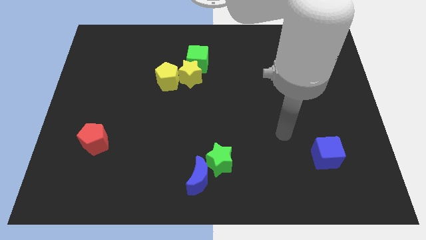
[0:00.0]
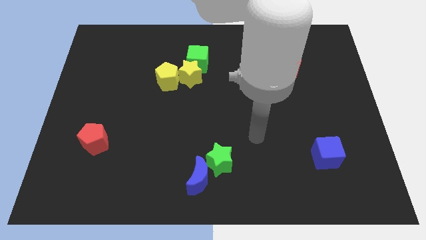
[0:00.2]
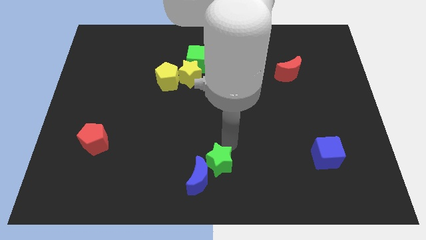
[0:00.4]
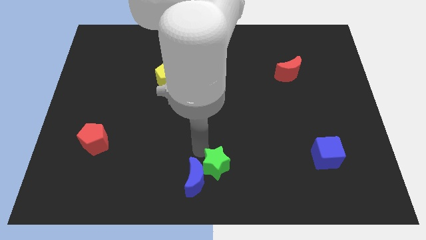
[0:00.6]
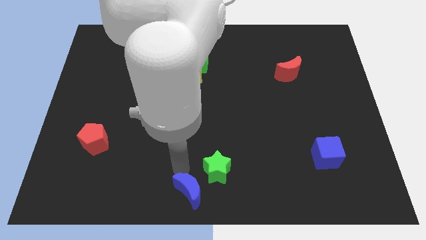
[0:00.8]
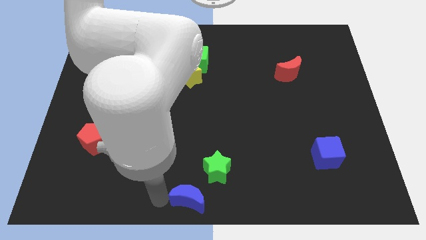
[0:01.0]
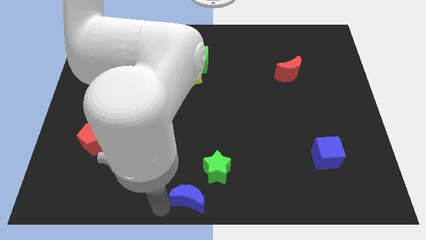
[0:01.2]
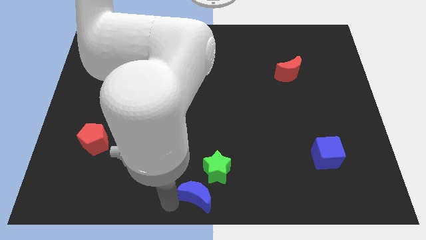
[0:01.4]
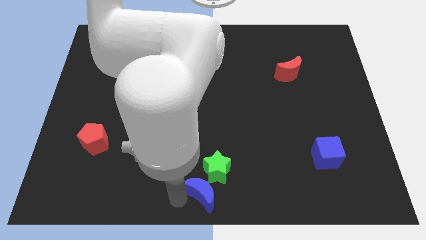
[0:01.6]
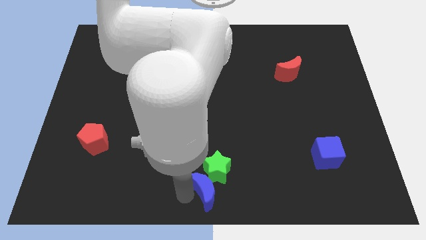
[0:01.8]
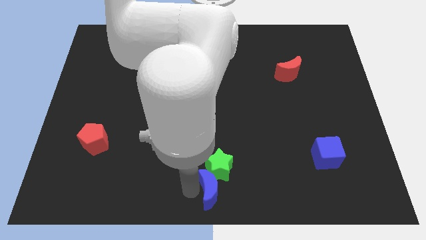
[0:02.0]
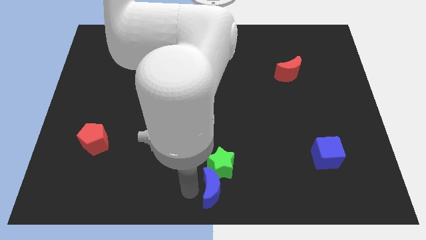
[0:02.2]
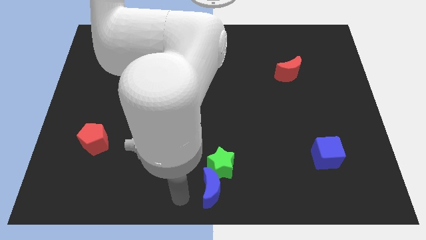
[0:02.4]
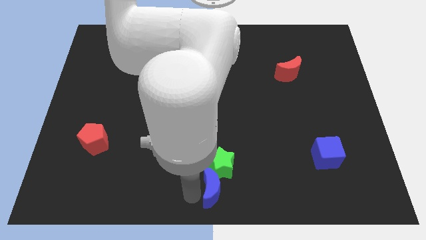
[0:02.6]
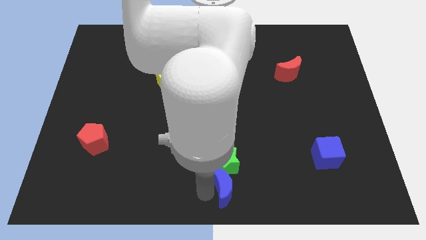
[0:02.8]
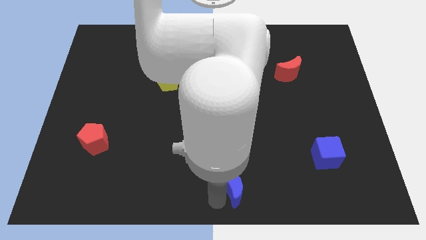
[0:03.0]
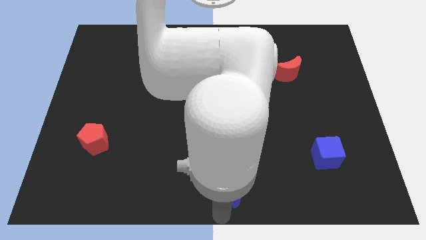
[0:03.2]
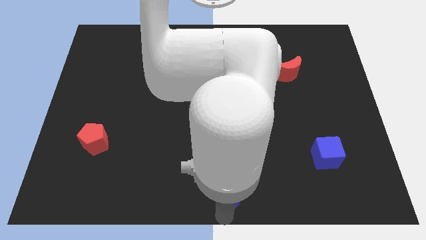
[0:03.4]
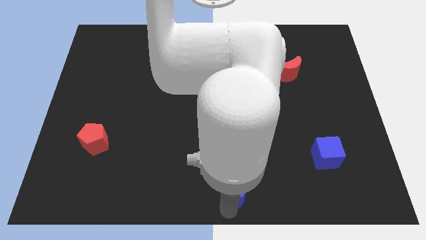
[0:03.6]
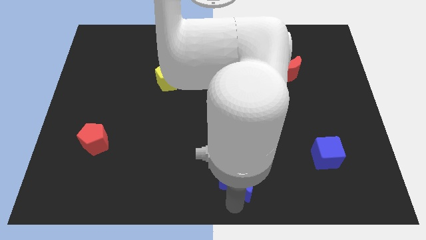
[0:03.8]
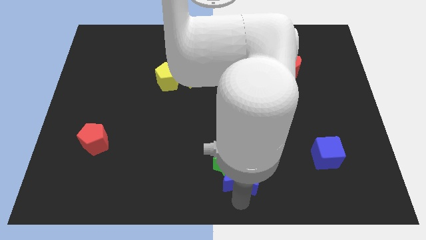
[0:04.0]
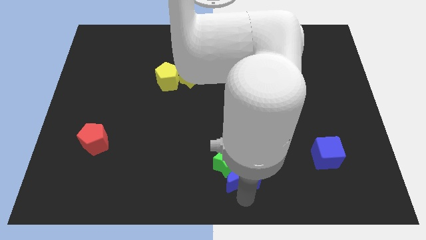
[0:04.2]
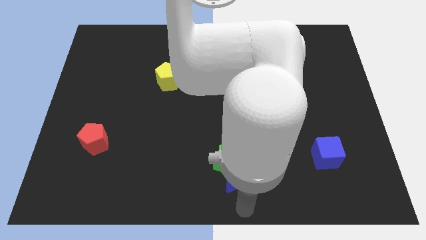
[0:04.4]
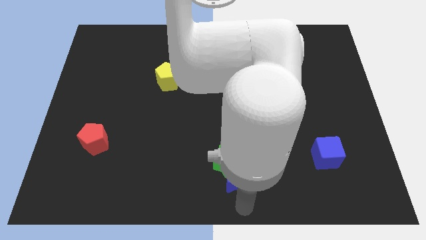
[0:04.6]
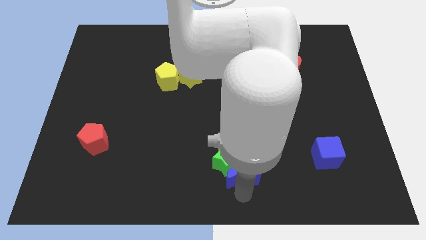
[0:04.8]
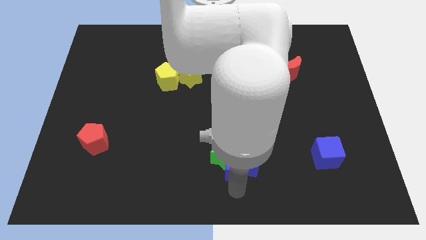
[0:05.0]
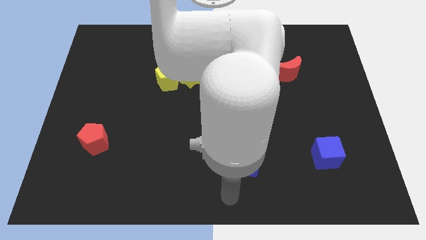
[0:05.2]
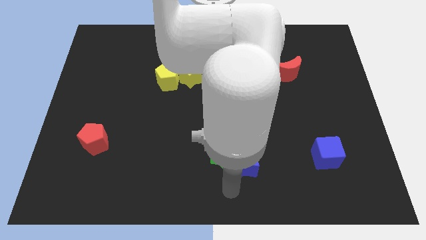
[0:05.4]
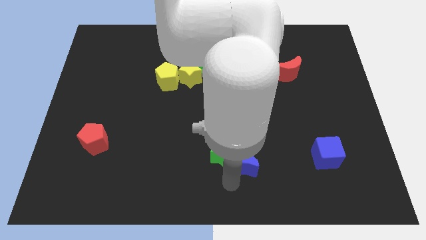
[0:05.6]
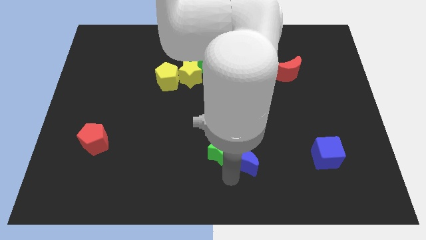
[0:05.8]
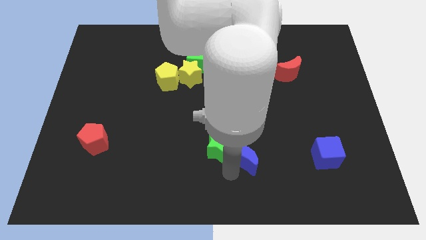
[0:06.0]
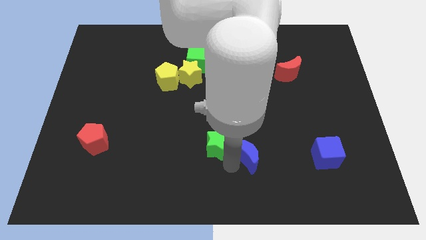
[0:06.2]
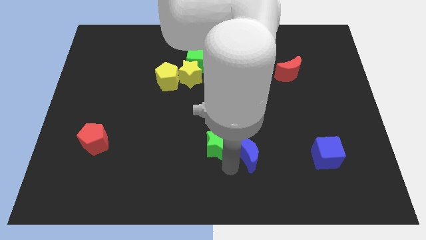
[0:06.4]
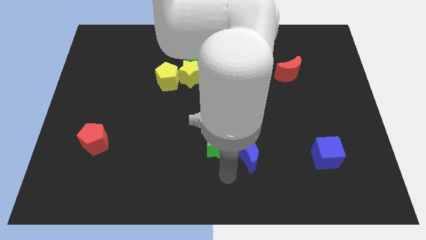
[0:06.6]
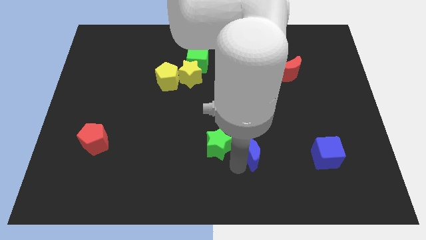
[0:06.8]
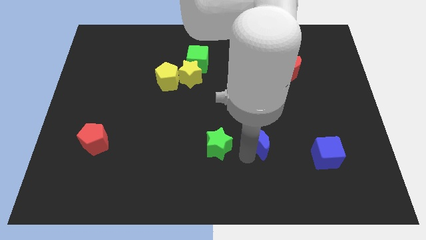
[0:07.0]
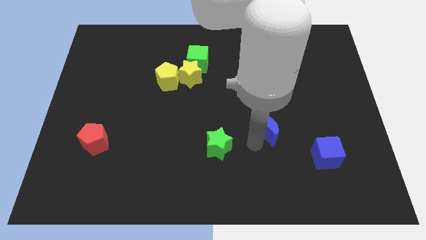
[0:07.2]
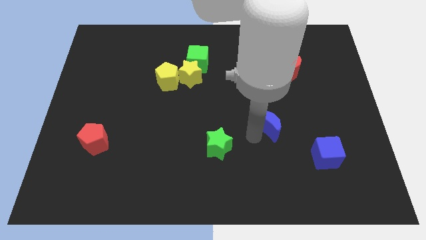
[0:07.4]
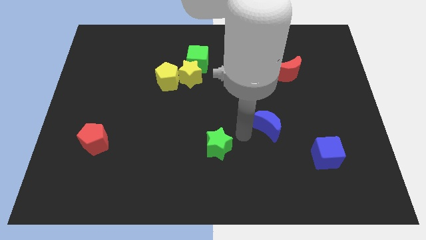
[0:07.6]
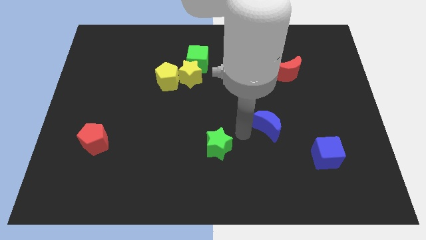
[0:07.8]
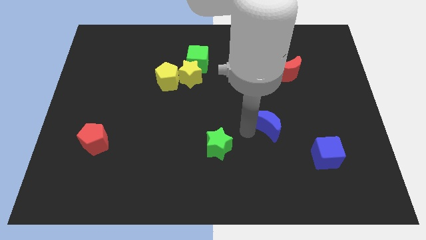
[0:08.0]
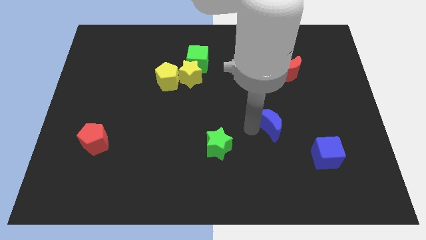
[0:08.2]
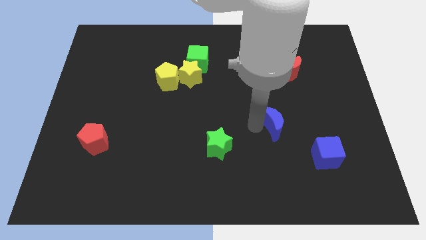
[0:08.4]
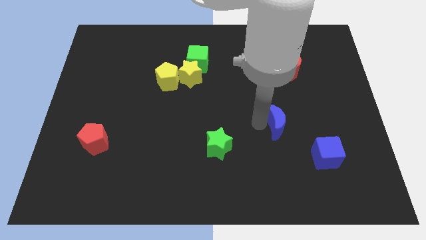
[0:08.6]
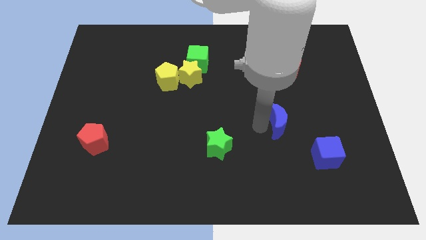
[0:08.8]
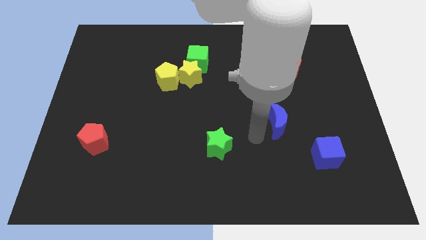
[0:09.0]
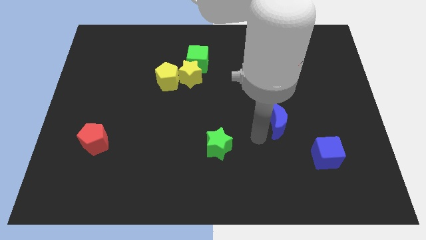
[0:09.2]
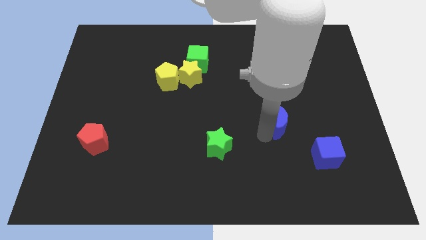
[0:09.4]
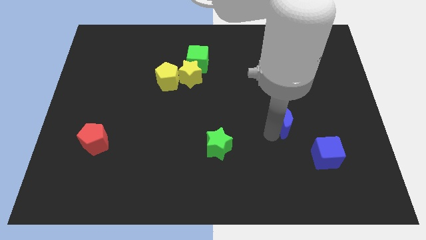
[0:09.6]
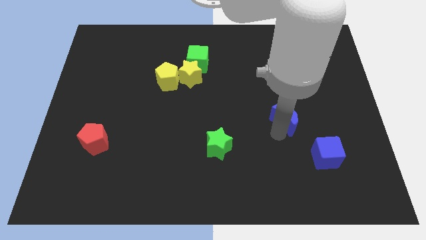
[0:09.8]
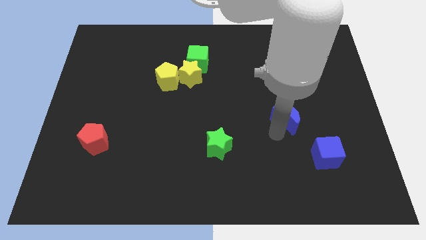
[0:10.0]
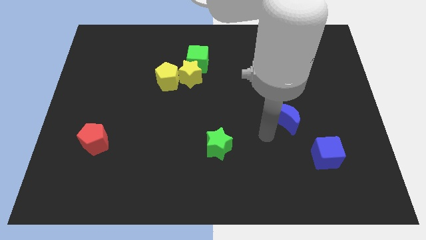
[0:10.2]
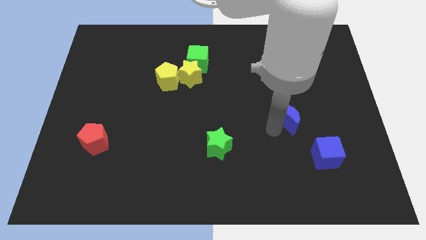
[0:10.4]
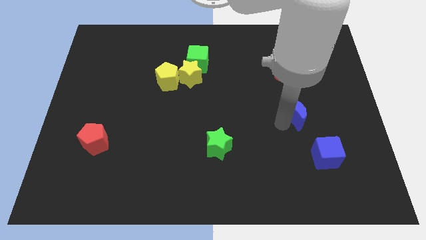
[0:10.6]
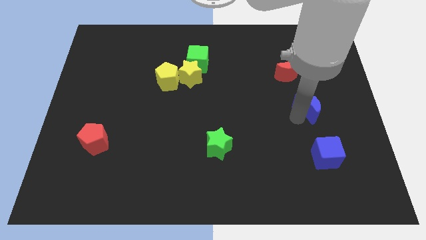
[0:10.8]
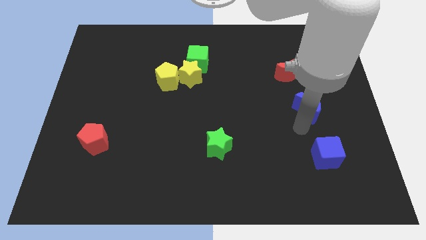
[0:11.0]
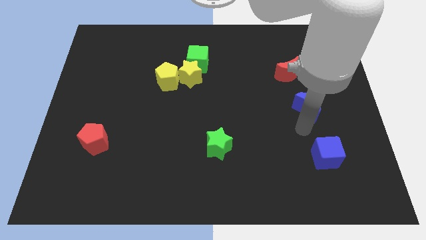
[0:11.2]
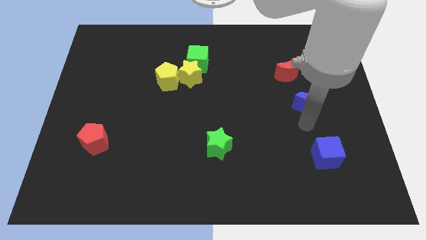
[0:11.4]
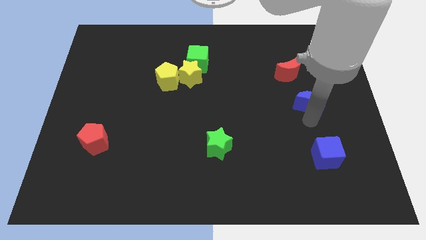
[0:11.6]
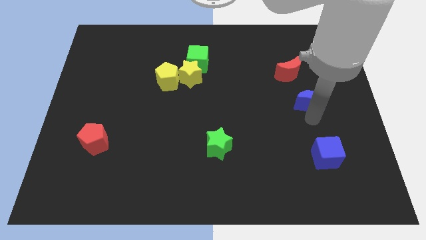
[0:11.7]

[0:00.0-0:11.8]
push the blue moon diagonally down and to the right of the red moon

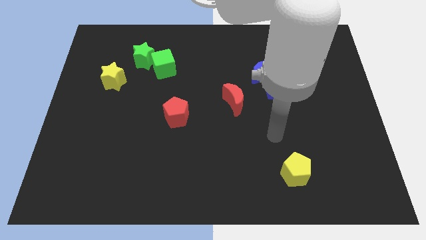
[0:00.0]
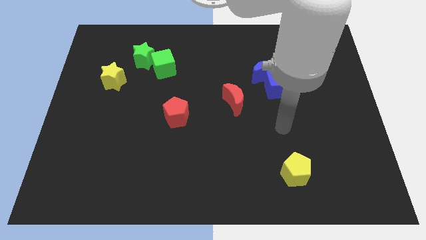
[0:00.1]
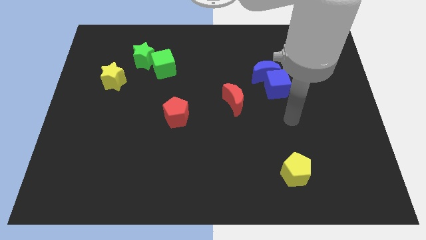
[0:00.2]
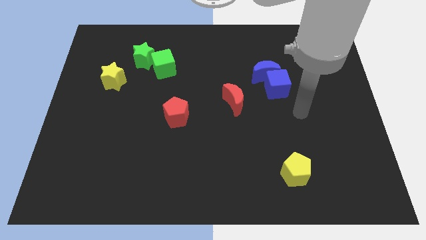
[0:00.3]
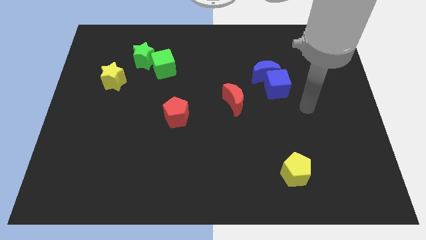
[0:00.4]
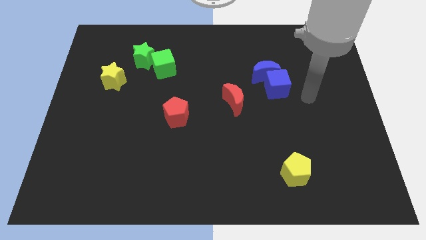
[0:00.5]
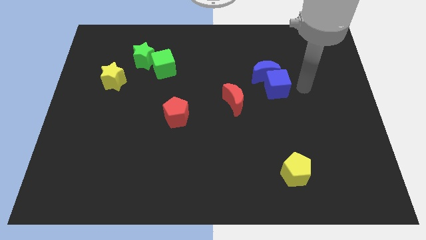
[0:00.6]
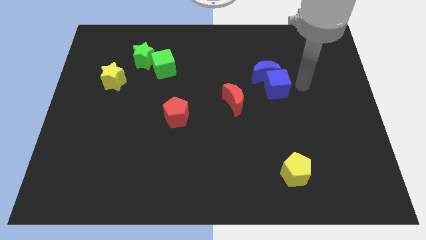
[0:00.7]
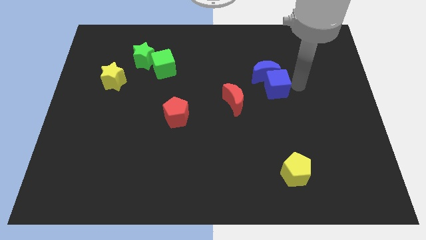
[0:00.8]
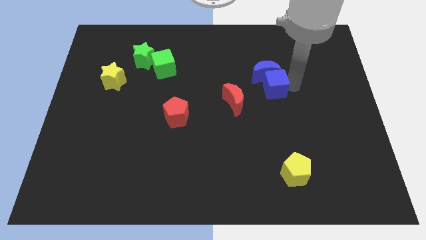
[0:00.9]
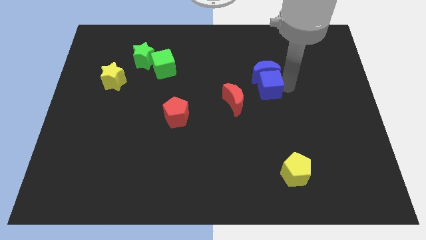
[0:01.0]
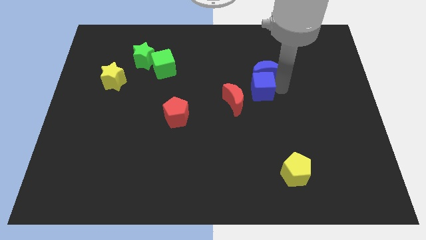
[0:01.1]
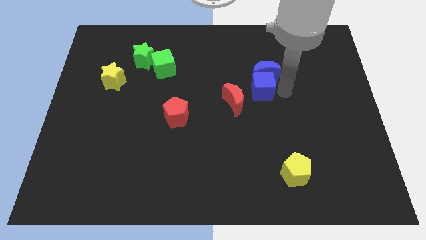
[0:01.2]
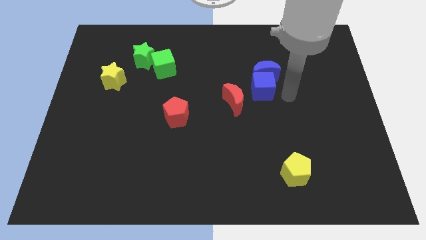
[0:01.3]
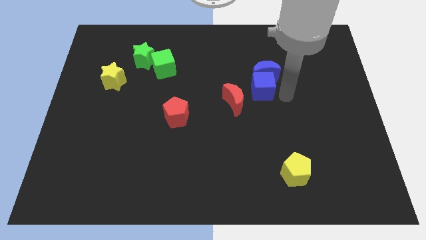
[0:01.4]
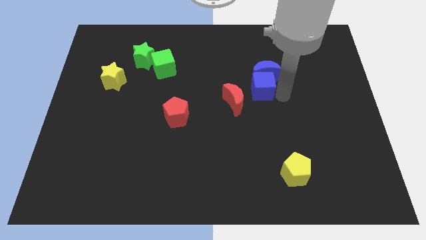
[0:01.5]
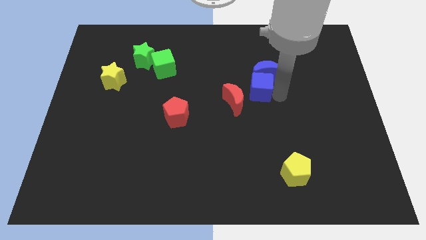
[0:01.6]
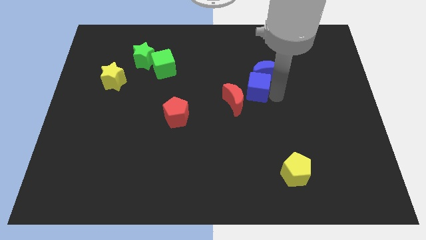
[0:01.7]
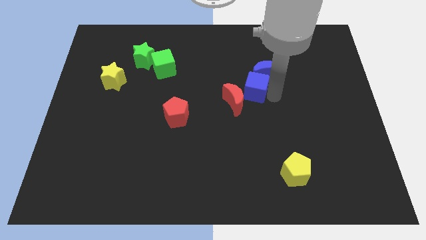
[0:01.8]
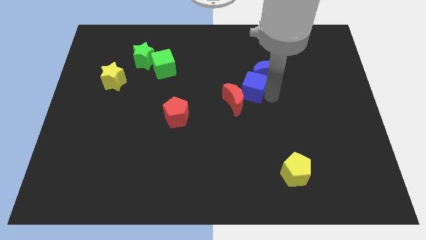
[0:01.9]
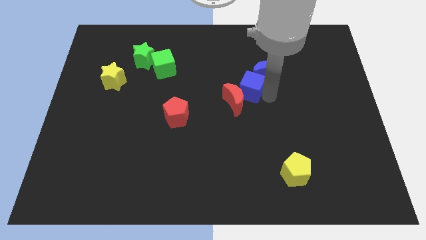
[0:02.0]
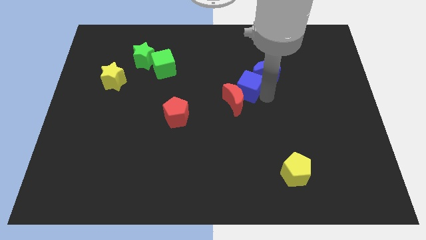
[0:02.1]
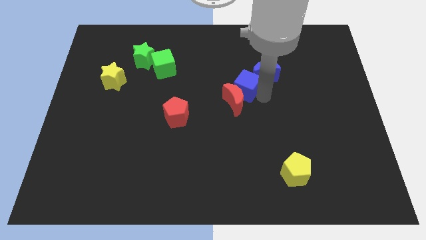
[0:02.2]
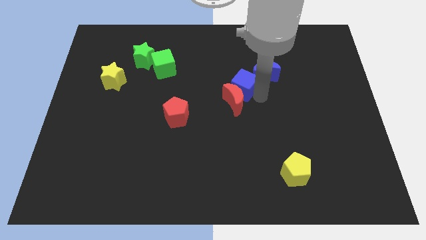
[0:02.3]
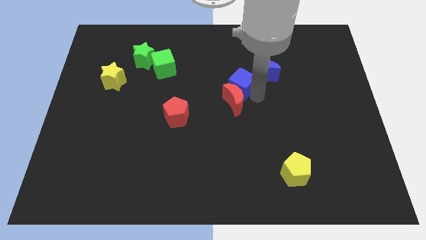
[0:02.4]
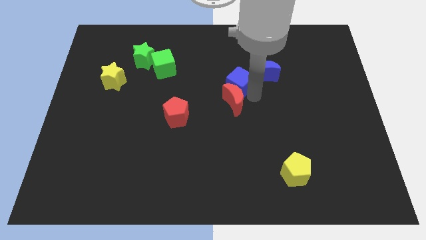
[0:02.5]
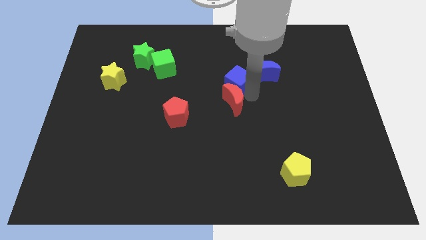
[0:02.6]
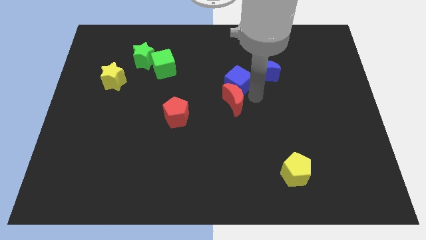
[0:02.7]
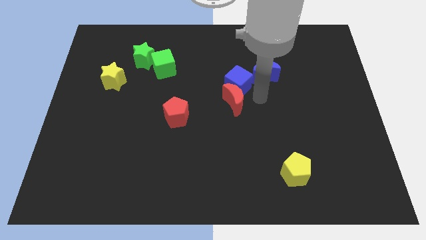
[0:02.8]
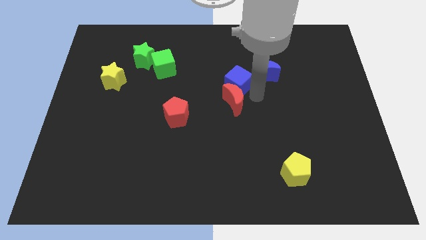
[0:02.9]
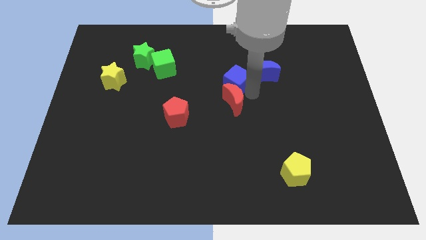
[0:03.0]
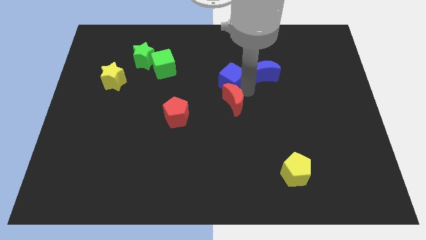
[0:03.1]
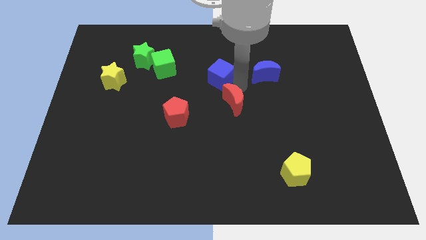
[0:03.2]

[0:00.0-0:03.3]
slide the blue cube right of the green cube
